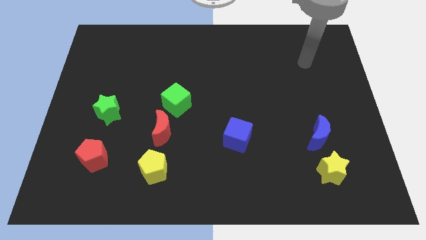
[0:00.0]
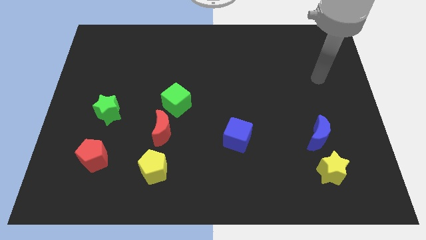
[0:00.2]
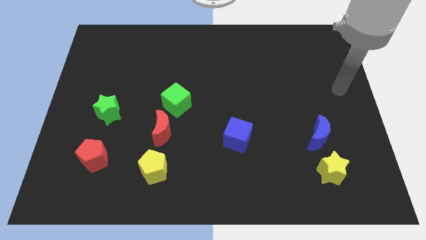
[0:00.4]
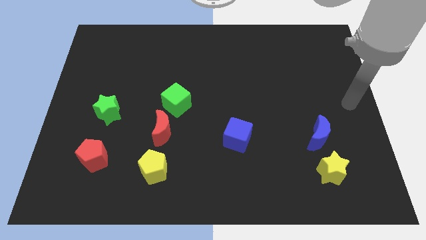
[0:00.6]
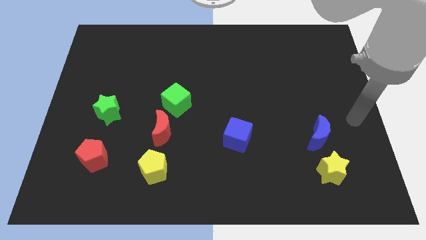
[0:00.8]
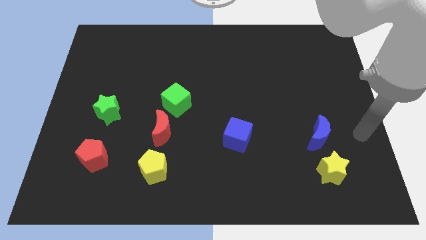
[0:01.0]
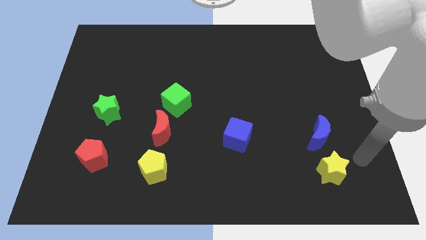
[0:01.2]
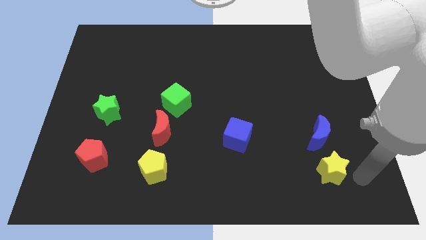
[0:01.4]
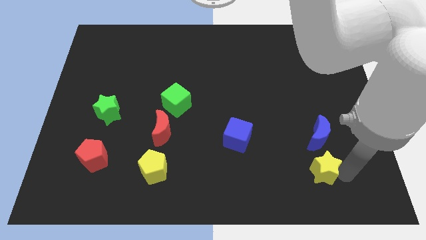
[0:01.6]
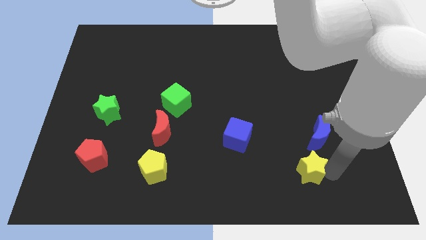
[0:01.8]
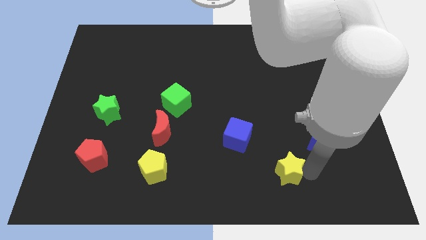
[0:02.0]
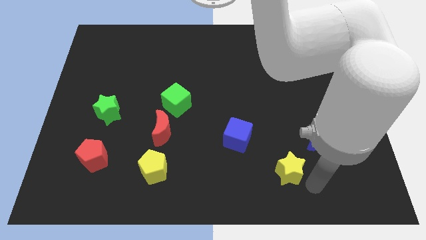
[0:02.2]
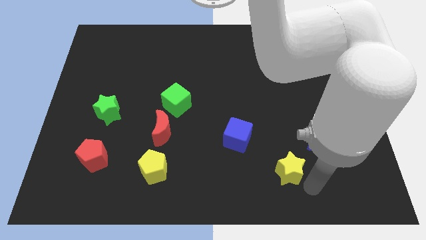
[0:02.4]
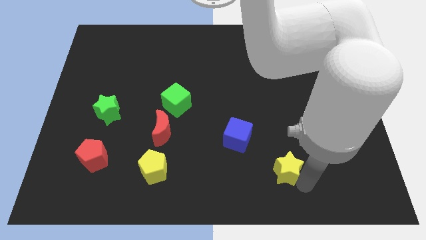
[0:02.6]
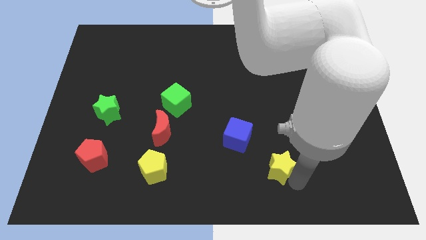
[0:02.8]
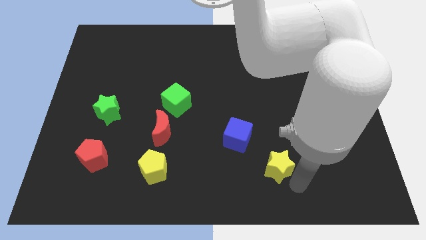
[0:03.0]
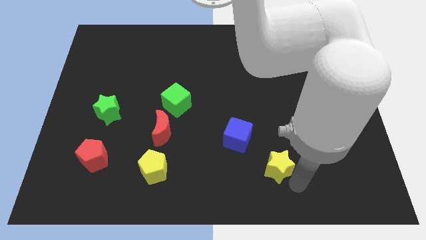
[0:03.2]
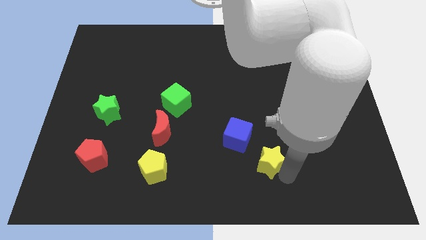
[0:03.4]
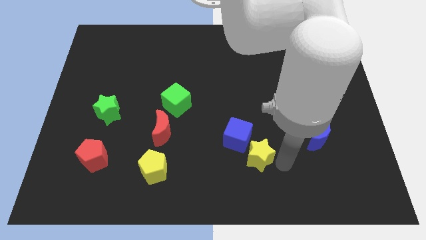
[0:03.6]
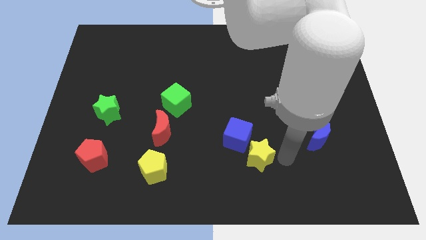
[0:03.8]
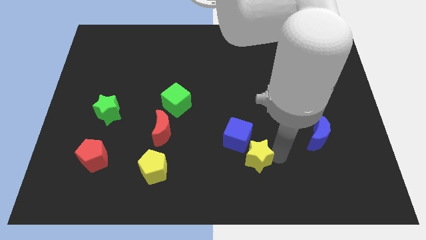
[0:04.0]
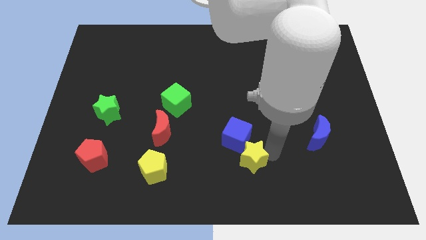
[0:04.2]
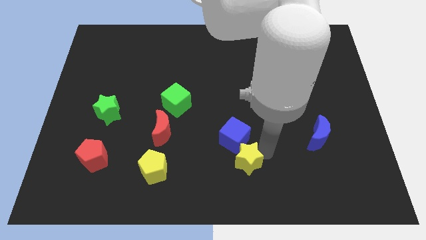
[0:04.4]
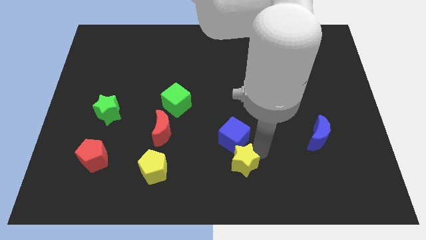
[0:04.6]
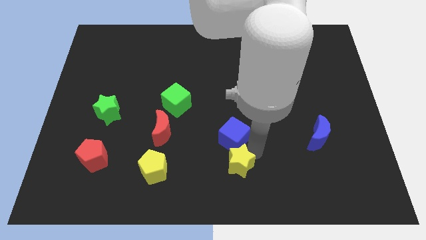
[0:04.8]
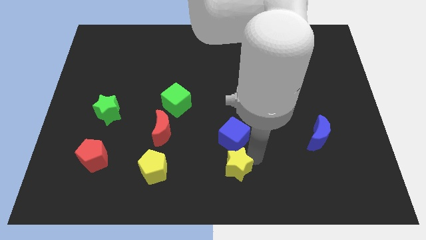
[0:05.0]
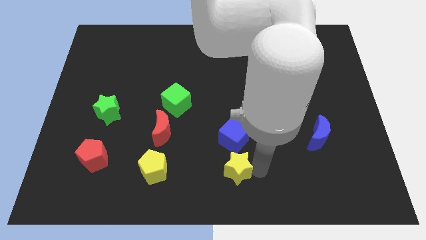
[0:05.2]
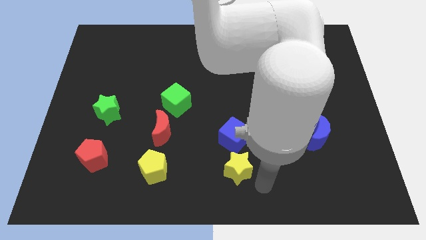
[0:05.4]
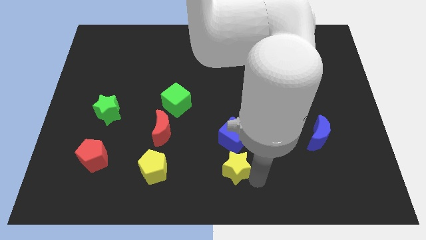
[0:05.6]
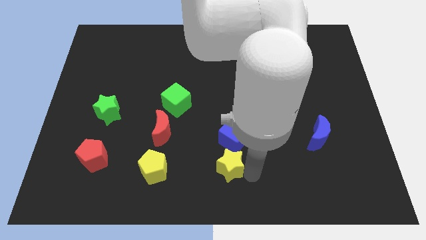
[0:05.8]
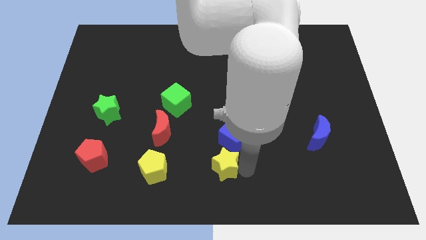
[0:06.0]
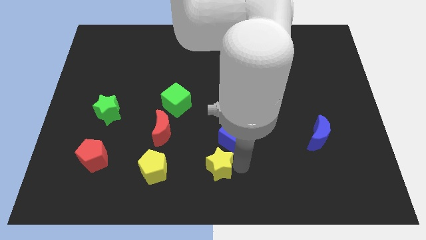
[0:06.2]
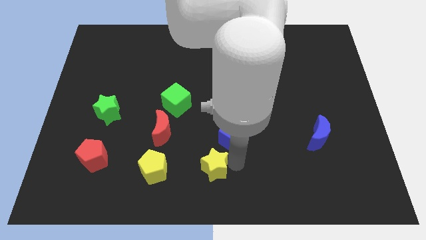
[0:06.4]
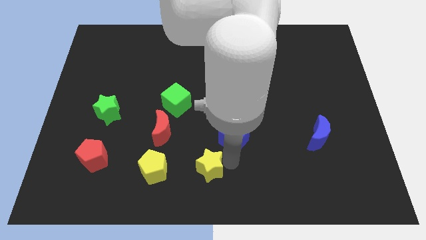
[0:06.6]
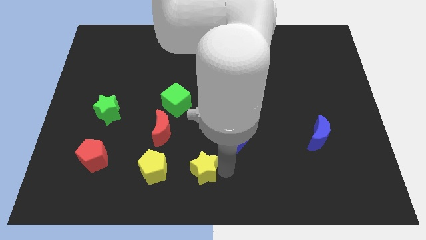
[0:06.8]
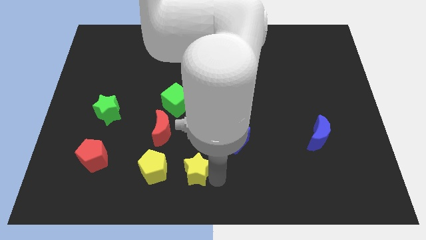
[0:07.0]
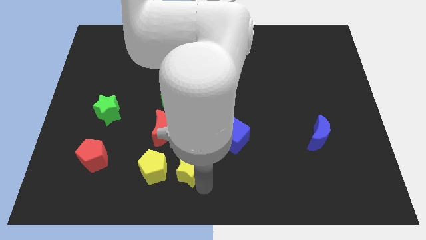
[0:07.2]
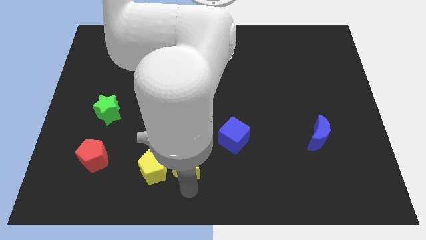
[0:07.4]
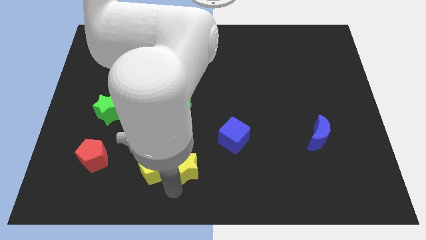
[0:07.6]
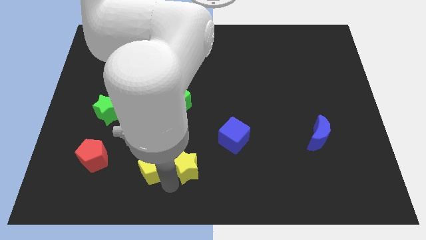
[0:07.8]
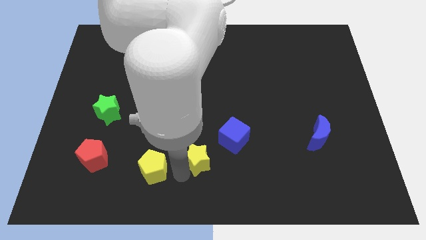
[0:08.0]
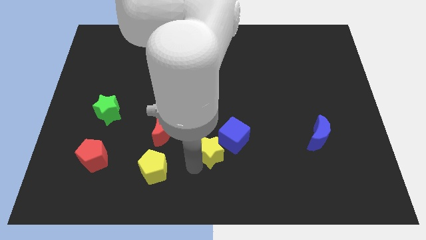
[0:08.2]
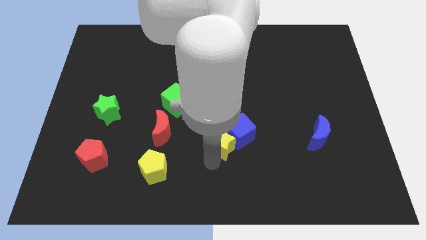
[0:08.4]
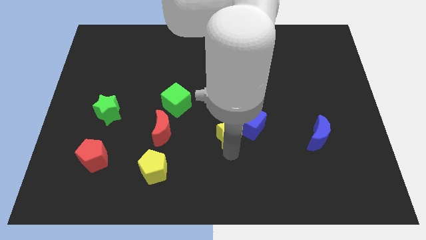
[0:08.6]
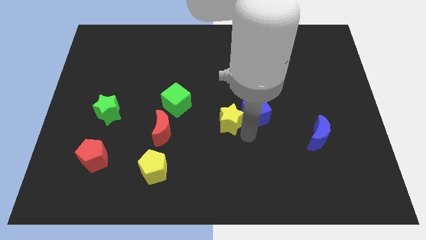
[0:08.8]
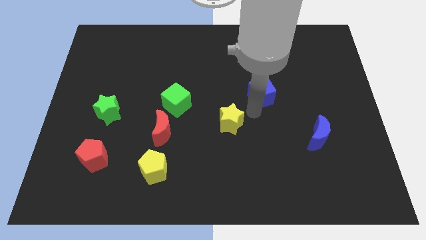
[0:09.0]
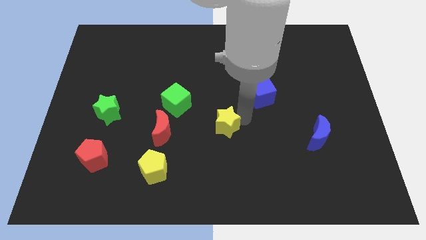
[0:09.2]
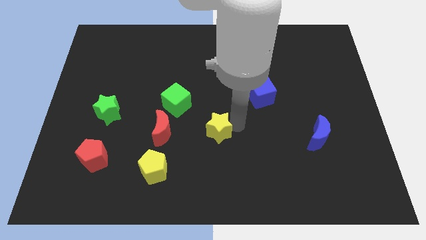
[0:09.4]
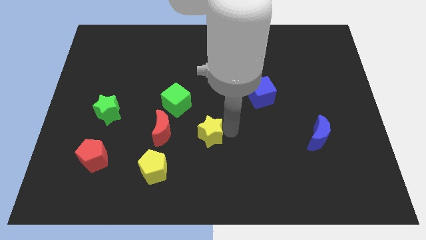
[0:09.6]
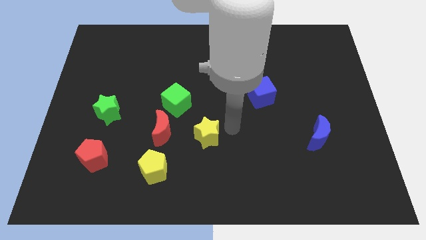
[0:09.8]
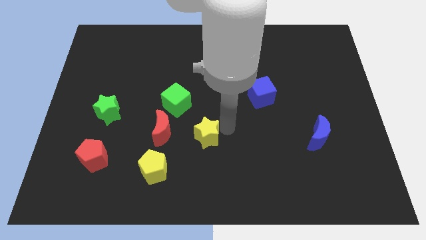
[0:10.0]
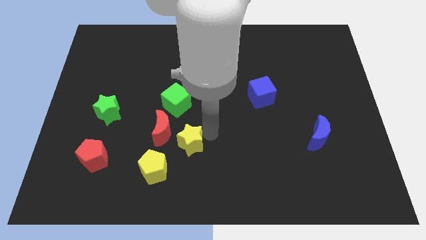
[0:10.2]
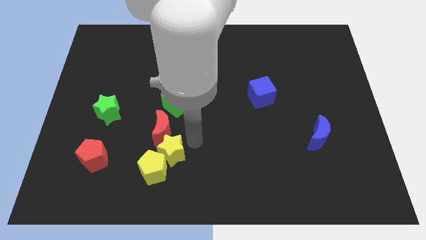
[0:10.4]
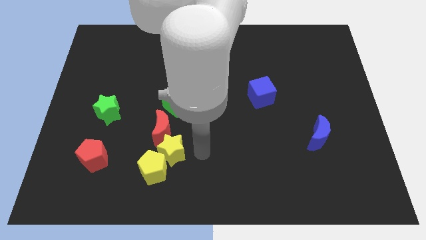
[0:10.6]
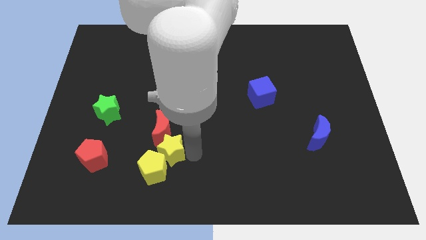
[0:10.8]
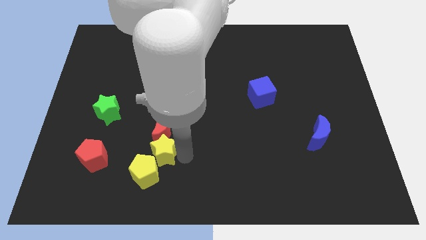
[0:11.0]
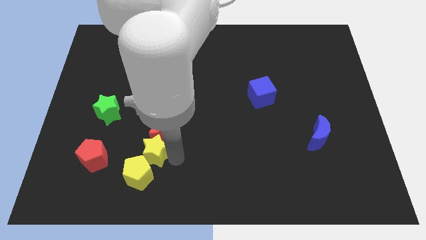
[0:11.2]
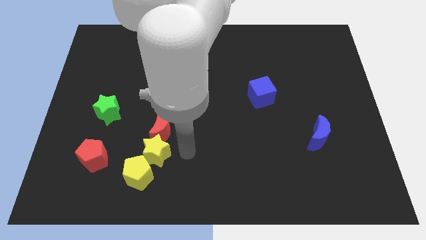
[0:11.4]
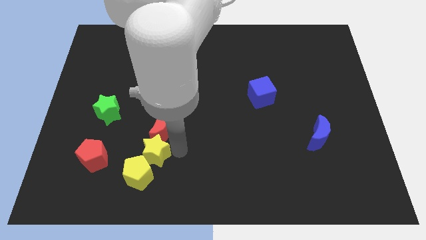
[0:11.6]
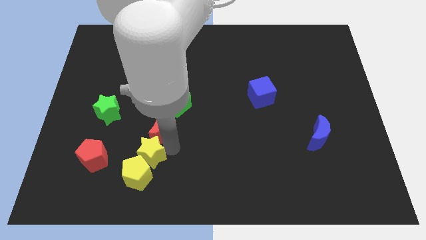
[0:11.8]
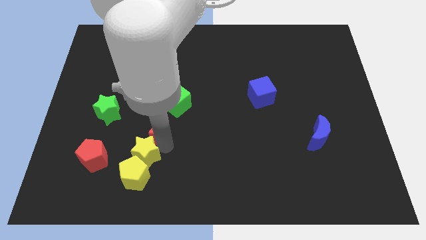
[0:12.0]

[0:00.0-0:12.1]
push the yellow star to the top left of the yellow pentagon

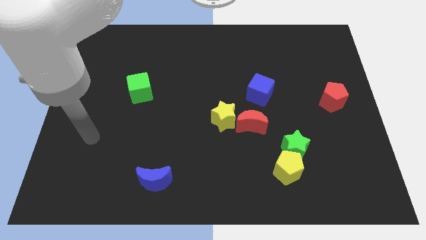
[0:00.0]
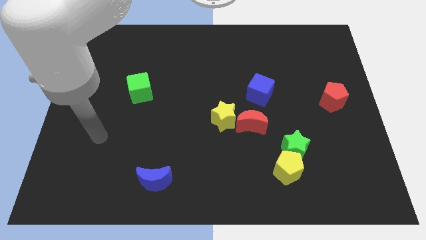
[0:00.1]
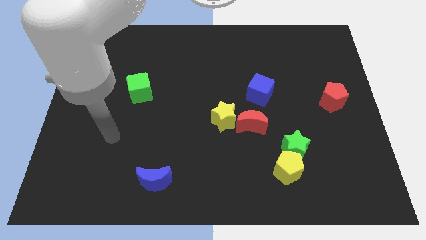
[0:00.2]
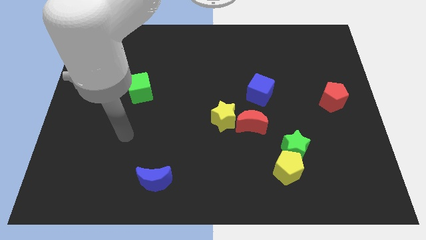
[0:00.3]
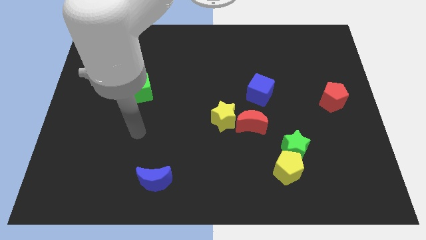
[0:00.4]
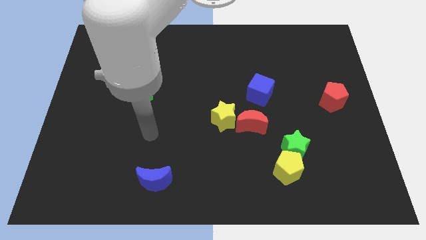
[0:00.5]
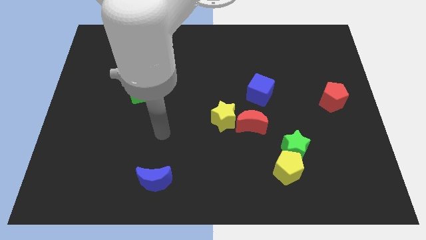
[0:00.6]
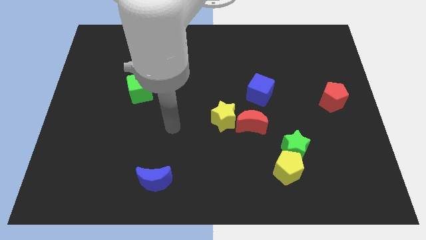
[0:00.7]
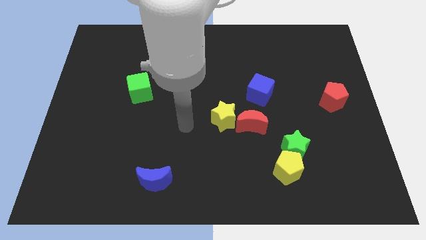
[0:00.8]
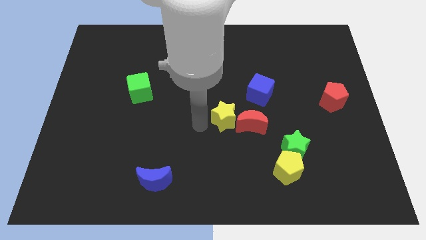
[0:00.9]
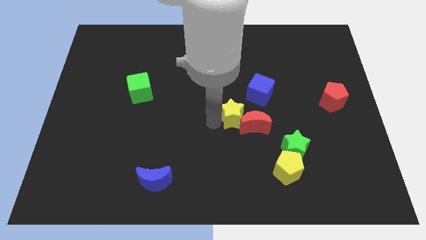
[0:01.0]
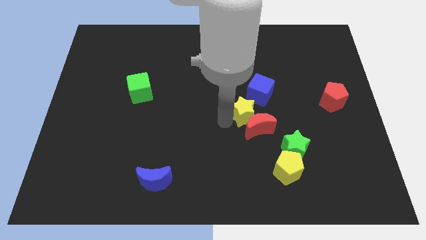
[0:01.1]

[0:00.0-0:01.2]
put the red moon to the top side of the yellow pentagon

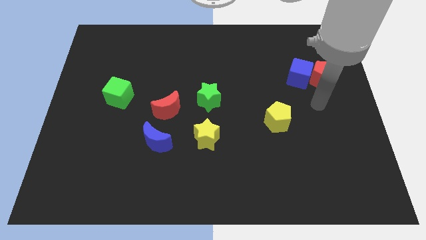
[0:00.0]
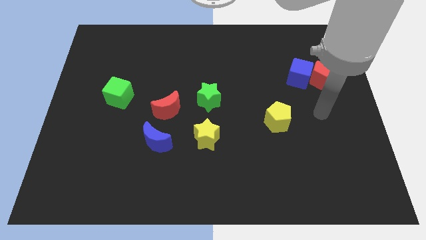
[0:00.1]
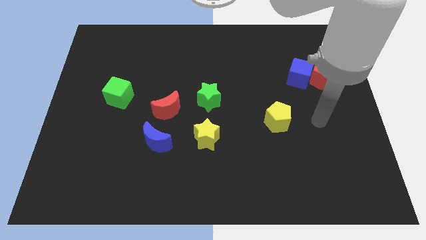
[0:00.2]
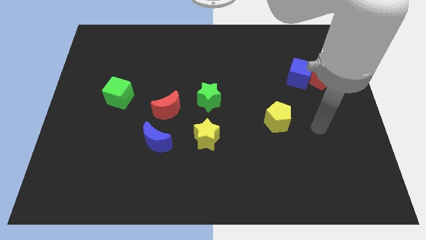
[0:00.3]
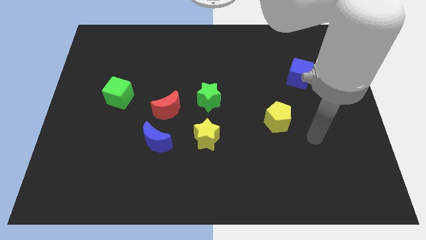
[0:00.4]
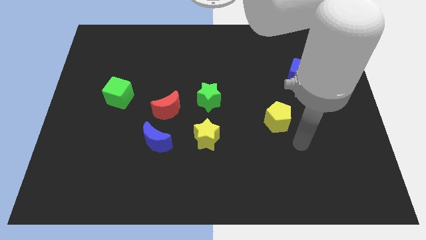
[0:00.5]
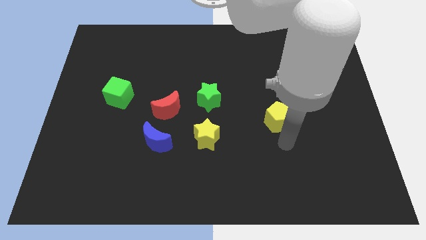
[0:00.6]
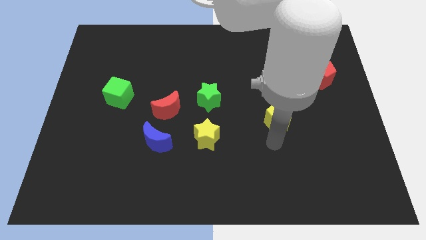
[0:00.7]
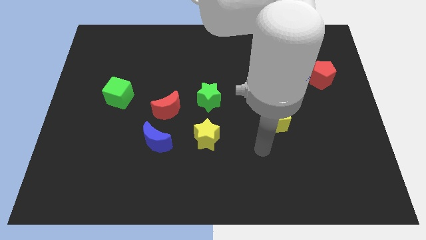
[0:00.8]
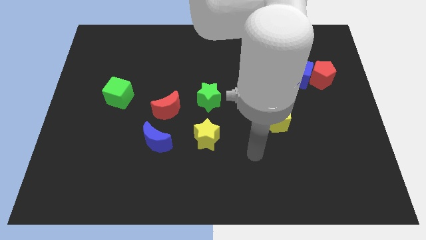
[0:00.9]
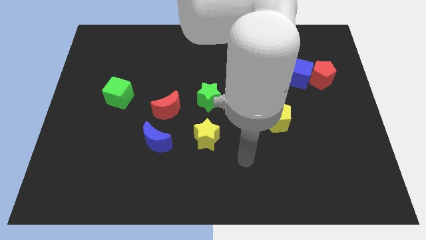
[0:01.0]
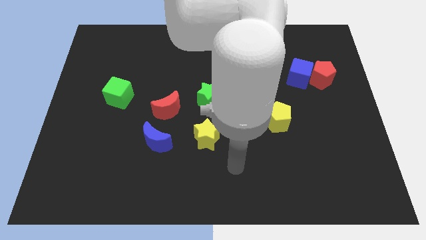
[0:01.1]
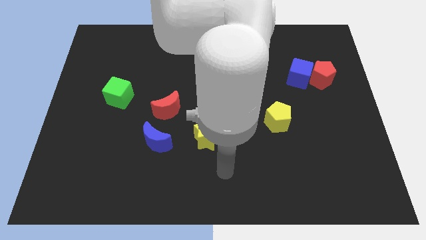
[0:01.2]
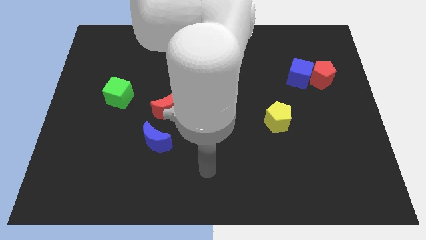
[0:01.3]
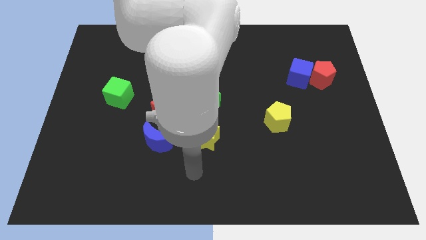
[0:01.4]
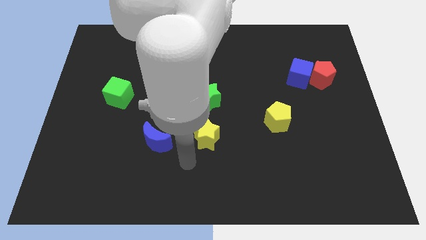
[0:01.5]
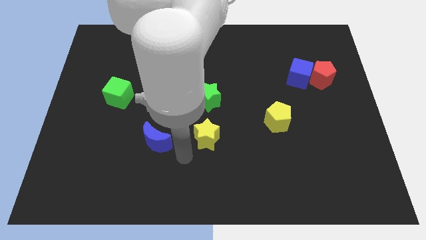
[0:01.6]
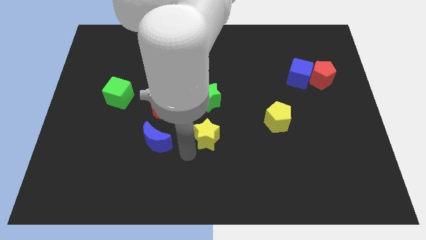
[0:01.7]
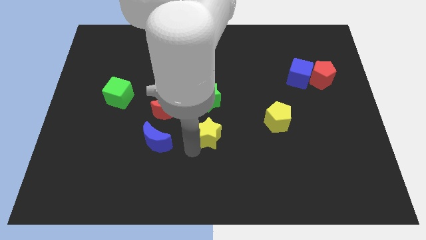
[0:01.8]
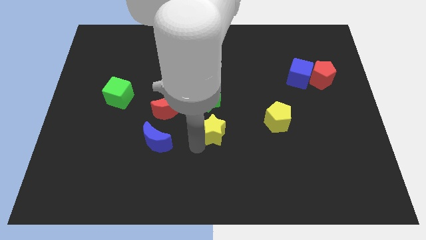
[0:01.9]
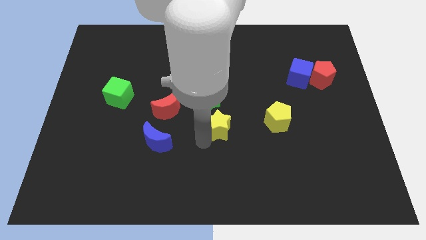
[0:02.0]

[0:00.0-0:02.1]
slide the yellow star diagonally down and to the right of the green star
